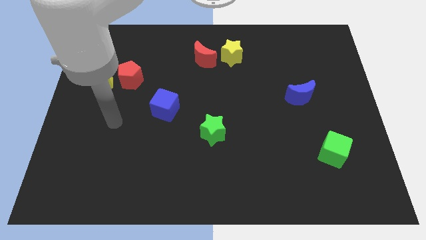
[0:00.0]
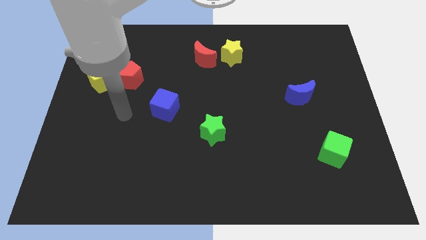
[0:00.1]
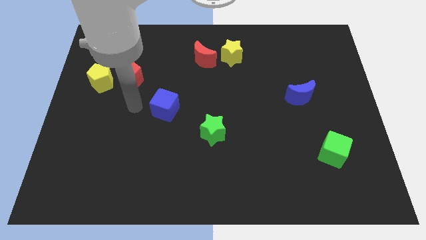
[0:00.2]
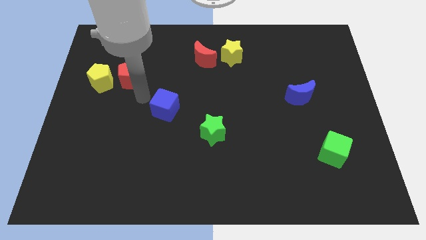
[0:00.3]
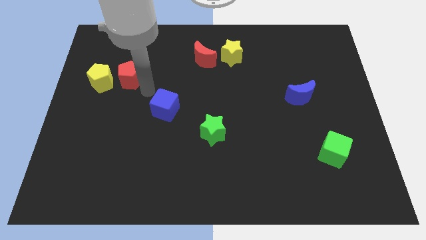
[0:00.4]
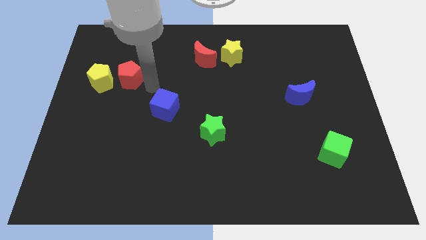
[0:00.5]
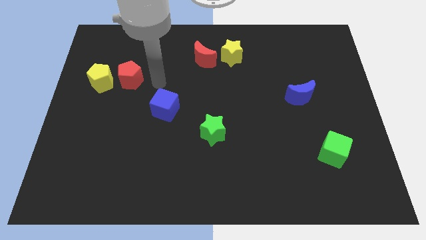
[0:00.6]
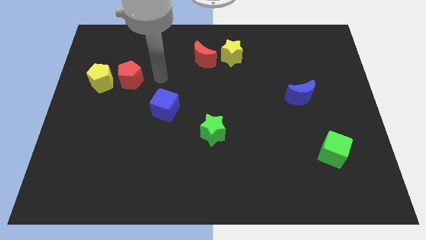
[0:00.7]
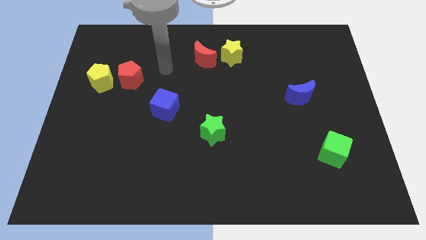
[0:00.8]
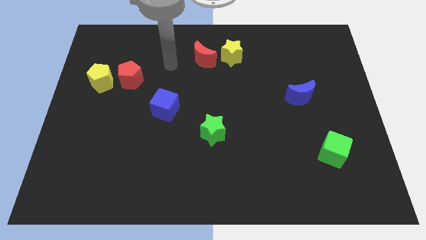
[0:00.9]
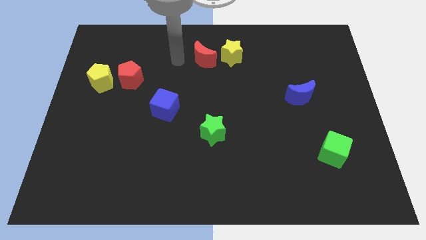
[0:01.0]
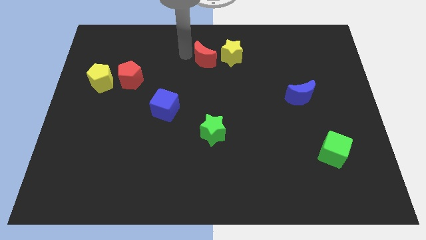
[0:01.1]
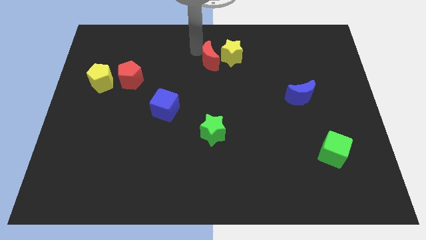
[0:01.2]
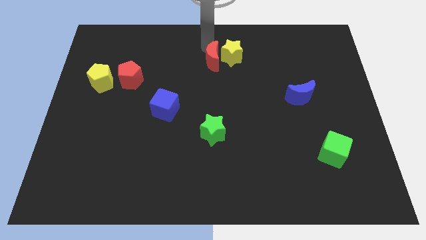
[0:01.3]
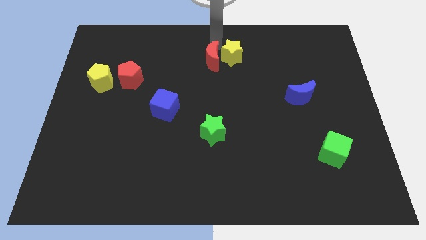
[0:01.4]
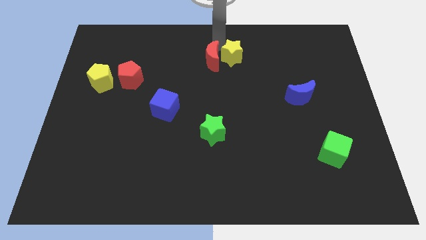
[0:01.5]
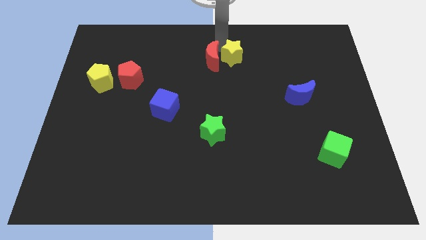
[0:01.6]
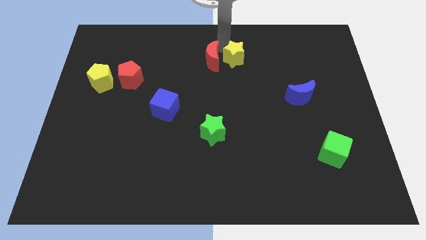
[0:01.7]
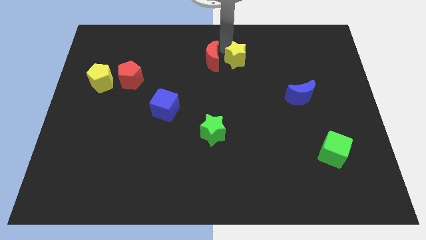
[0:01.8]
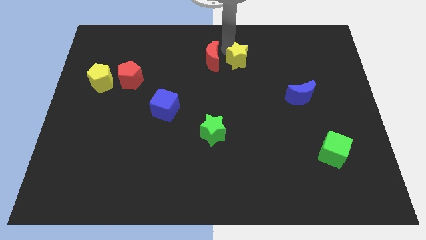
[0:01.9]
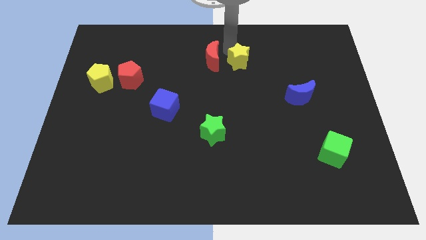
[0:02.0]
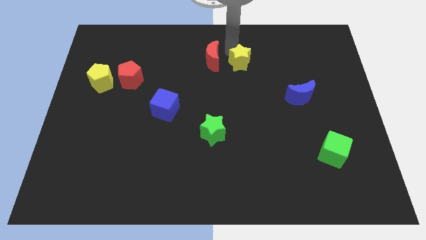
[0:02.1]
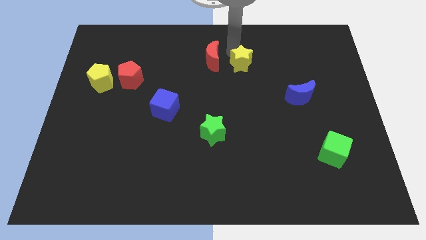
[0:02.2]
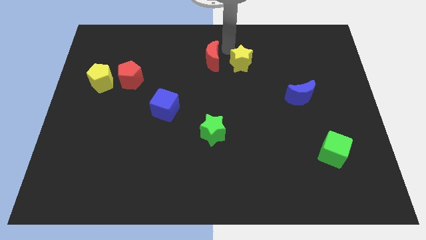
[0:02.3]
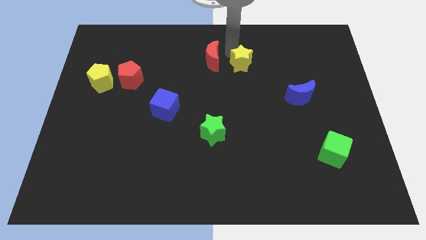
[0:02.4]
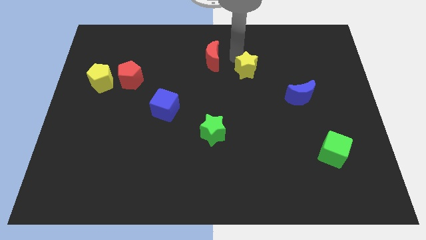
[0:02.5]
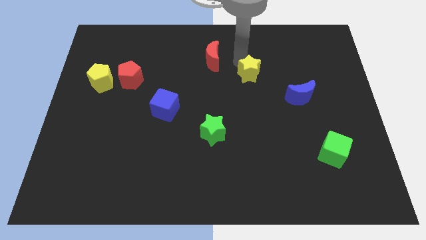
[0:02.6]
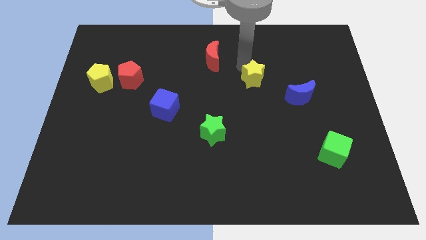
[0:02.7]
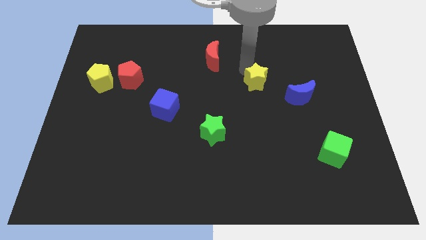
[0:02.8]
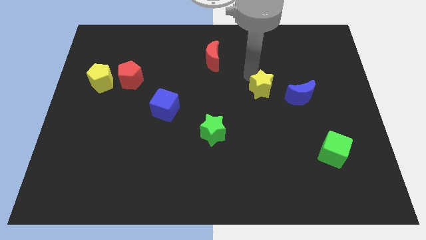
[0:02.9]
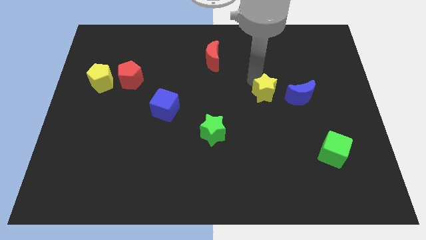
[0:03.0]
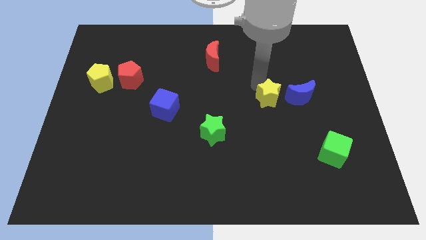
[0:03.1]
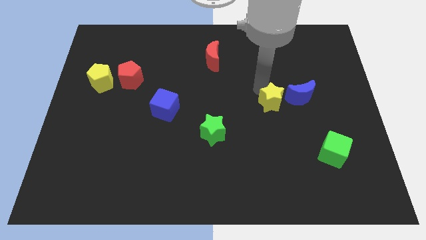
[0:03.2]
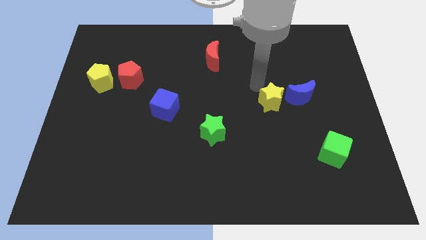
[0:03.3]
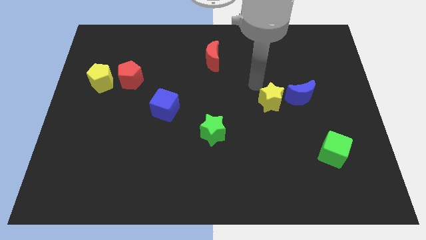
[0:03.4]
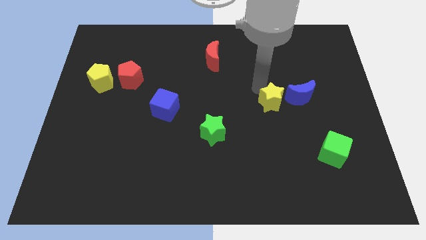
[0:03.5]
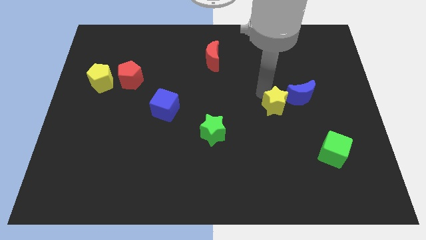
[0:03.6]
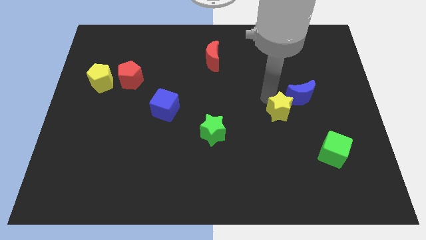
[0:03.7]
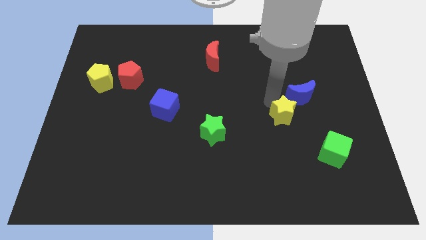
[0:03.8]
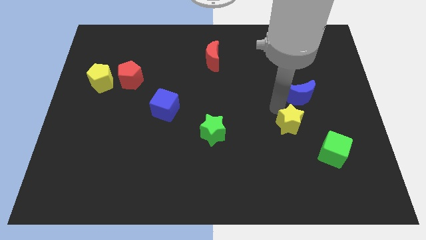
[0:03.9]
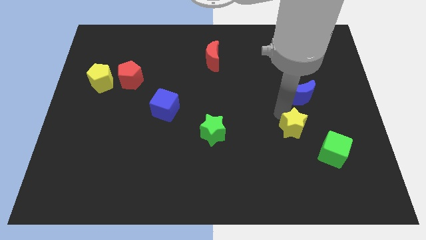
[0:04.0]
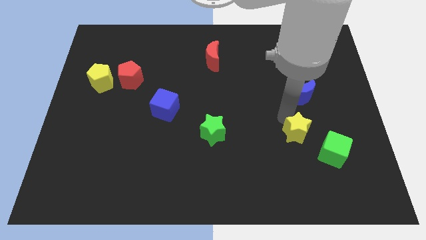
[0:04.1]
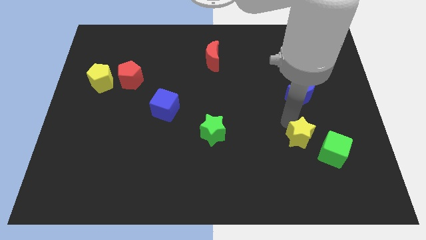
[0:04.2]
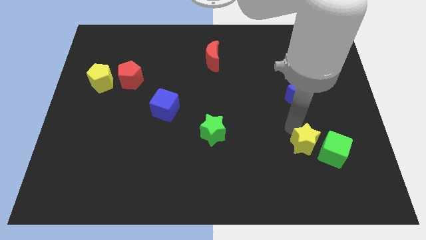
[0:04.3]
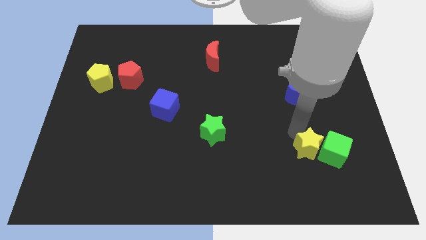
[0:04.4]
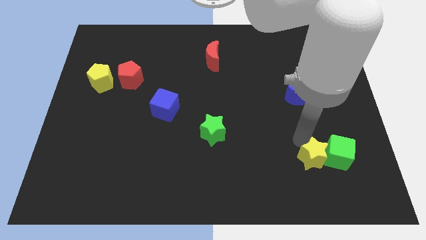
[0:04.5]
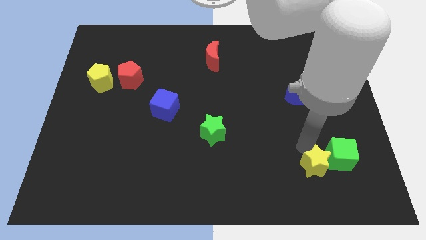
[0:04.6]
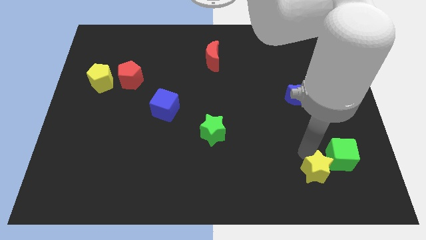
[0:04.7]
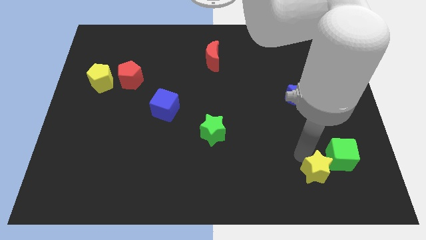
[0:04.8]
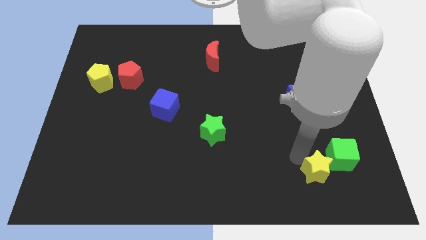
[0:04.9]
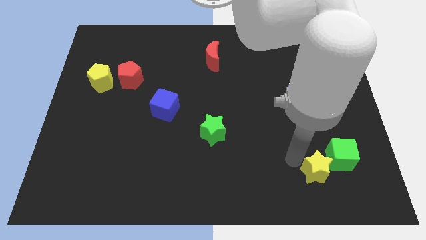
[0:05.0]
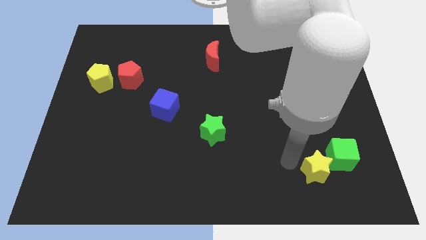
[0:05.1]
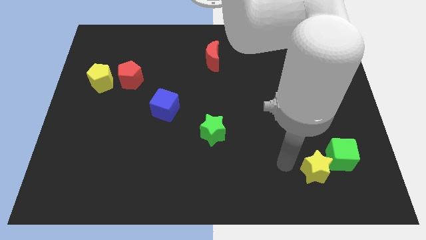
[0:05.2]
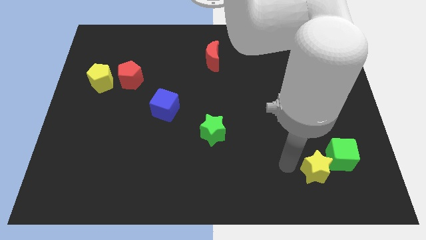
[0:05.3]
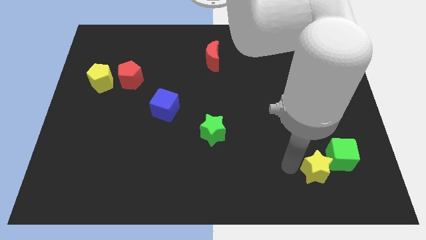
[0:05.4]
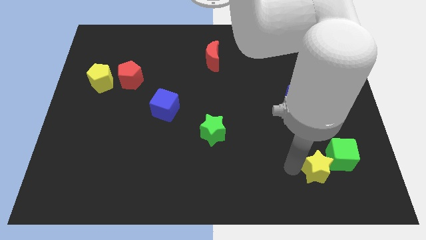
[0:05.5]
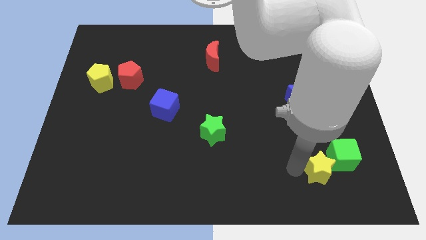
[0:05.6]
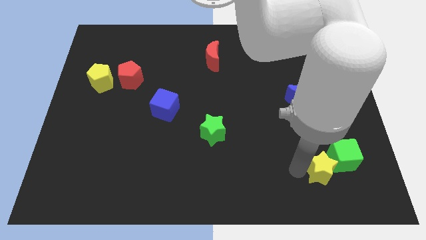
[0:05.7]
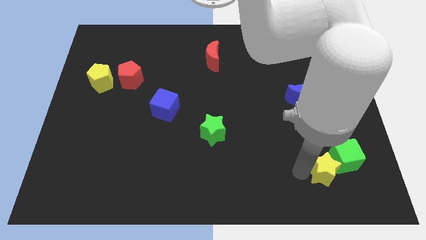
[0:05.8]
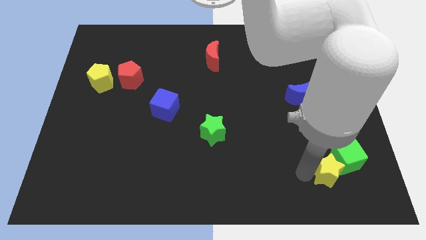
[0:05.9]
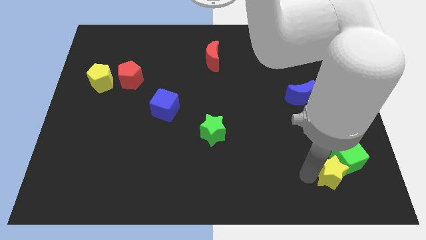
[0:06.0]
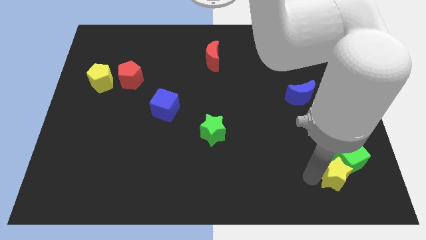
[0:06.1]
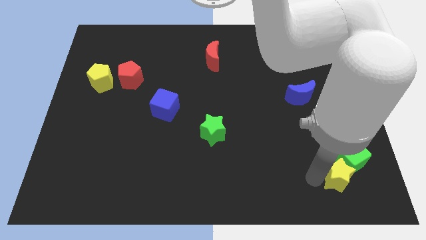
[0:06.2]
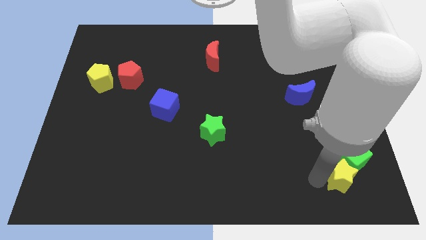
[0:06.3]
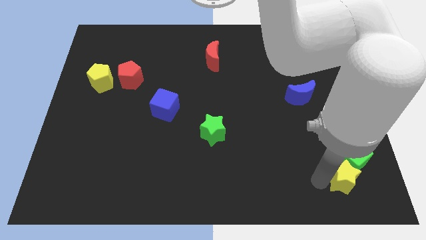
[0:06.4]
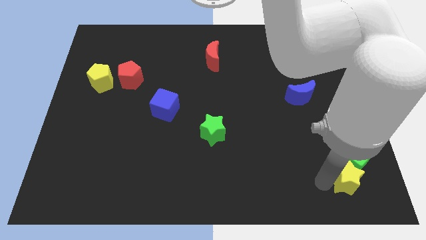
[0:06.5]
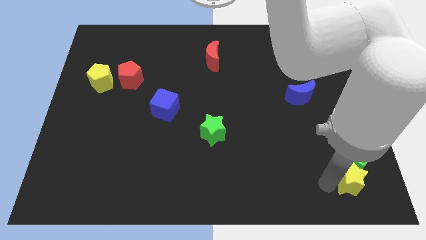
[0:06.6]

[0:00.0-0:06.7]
slide the yellow star to the lower right corner

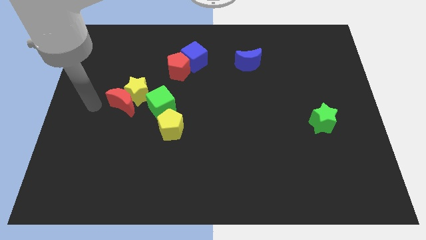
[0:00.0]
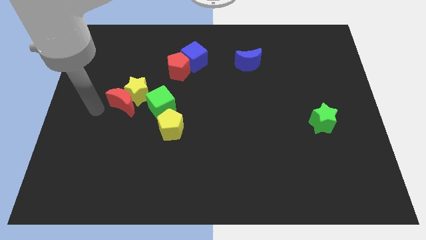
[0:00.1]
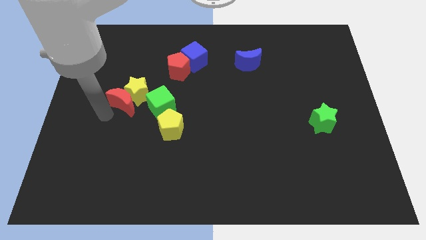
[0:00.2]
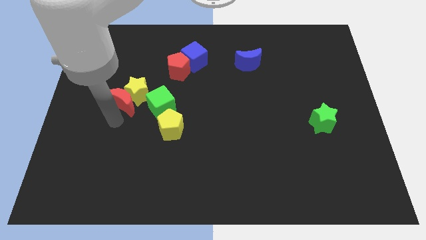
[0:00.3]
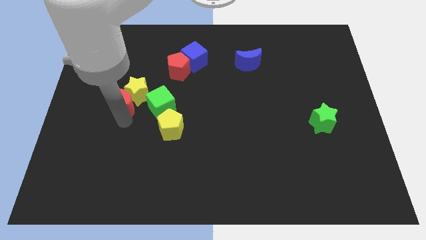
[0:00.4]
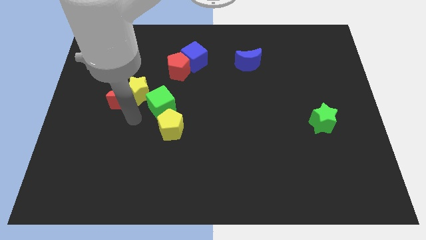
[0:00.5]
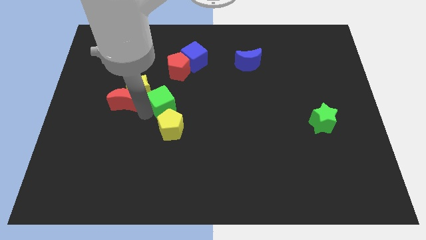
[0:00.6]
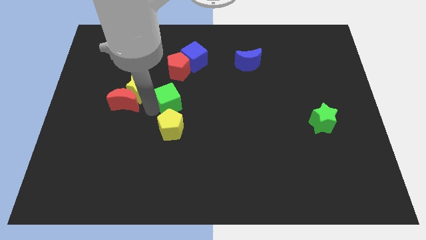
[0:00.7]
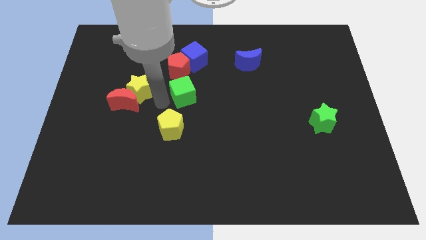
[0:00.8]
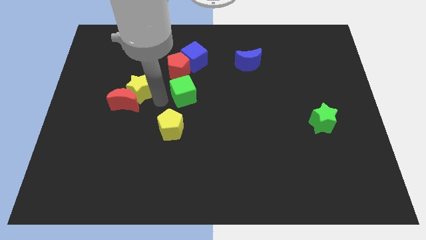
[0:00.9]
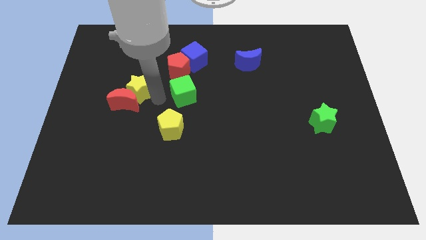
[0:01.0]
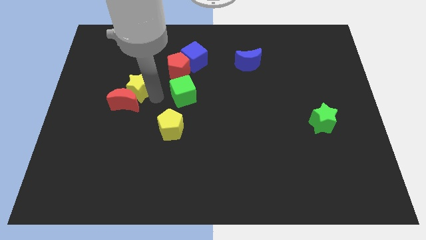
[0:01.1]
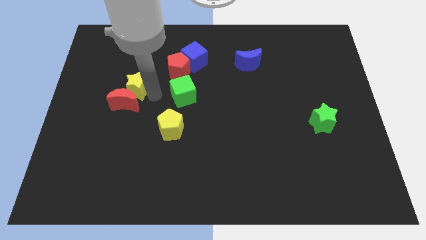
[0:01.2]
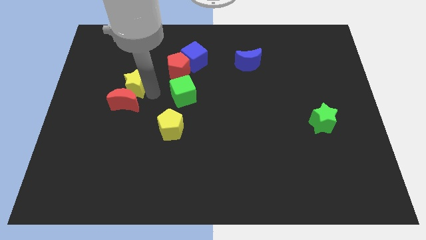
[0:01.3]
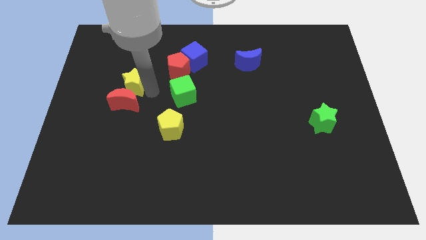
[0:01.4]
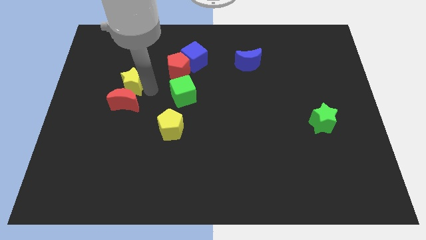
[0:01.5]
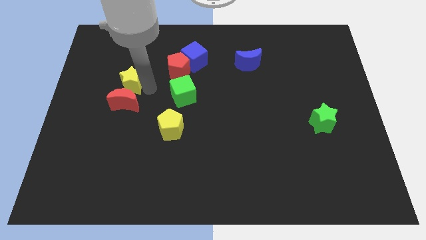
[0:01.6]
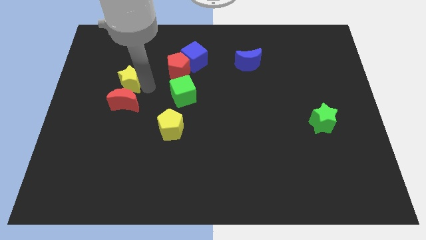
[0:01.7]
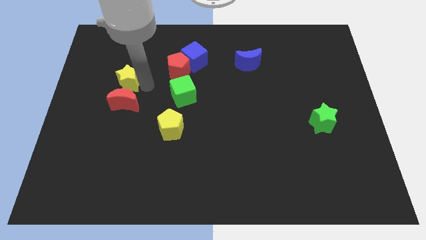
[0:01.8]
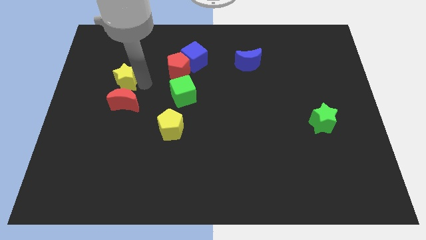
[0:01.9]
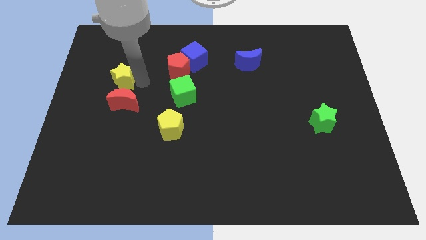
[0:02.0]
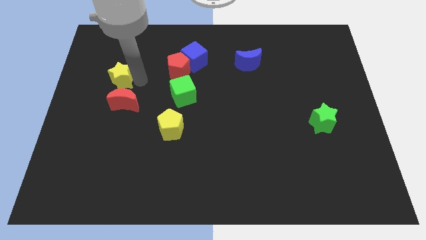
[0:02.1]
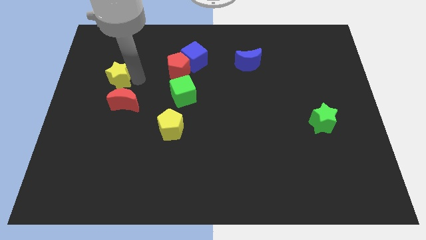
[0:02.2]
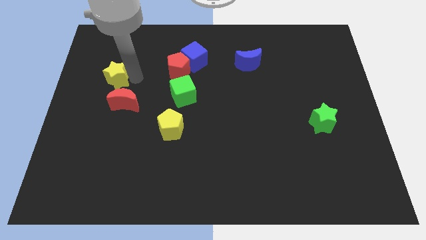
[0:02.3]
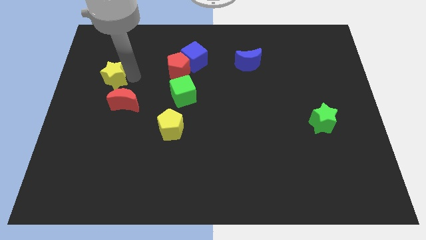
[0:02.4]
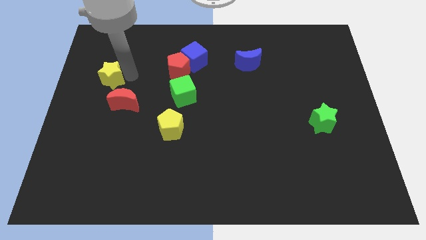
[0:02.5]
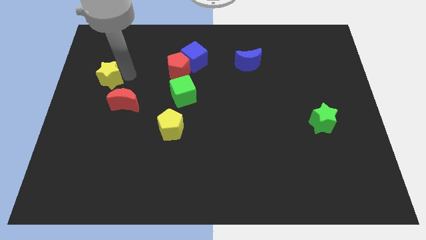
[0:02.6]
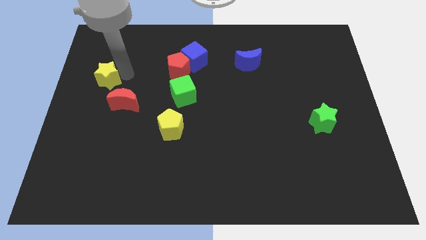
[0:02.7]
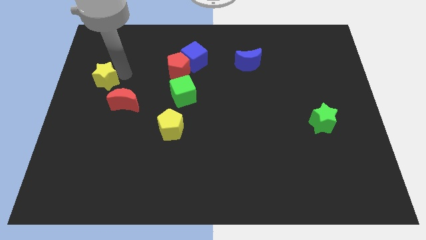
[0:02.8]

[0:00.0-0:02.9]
slide the yellow star to the left side of the board
